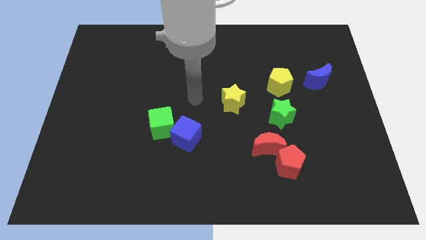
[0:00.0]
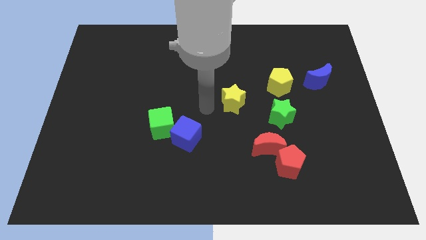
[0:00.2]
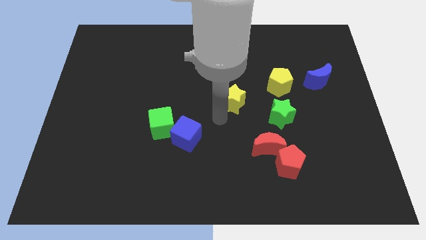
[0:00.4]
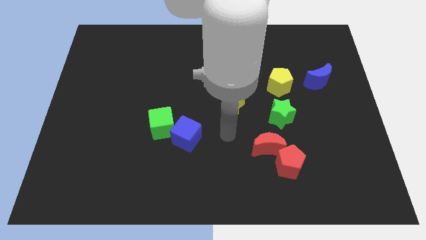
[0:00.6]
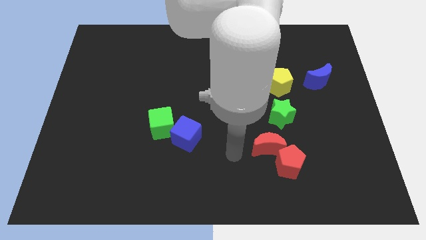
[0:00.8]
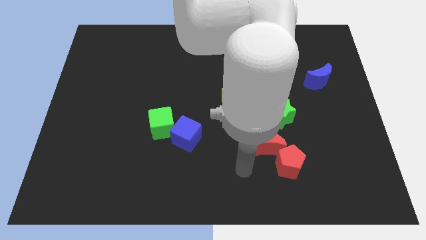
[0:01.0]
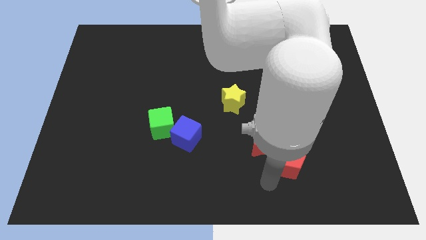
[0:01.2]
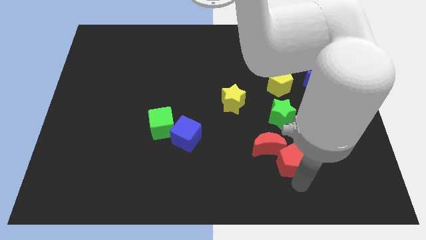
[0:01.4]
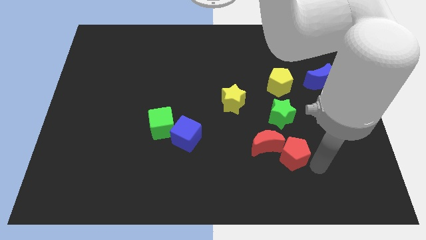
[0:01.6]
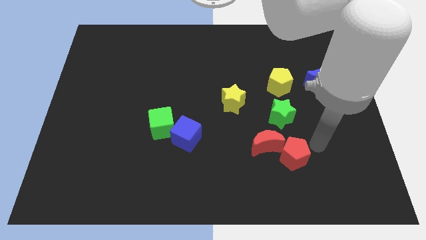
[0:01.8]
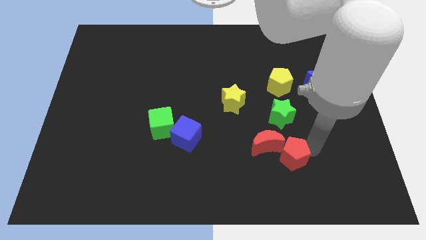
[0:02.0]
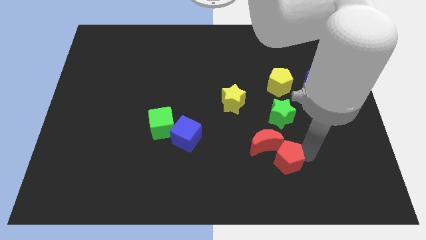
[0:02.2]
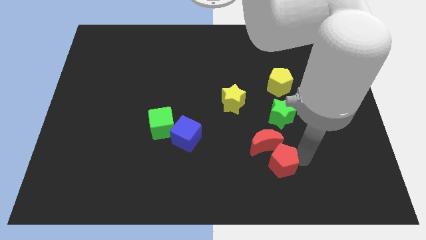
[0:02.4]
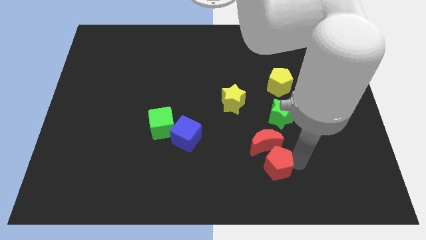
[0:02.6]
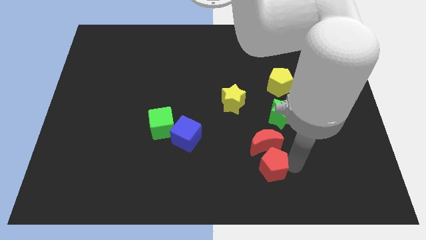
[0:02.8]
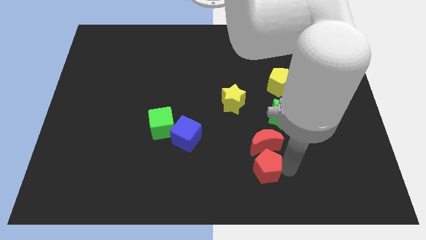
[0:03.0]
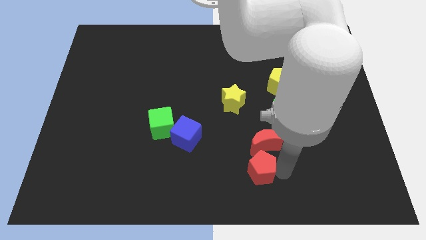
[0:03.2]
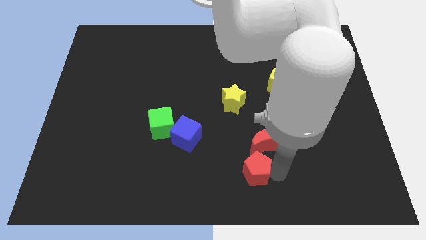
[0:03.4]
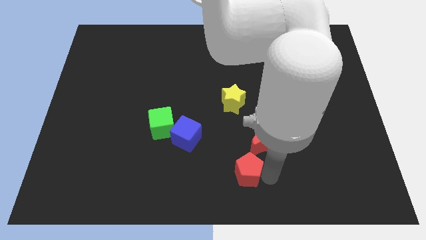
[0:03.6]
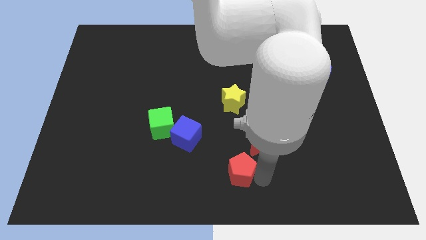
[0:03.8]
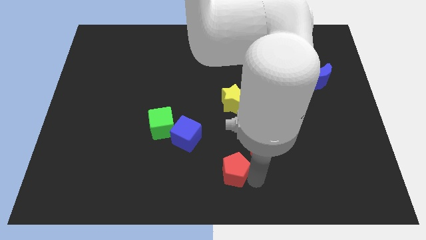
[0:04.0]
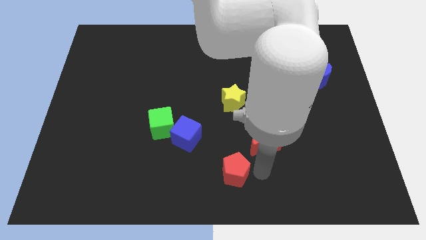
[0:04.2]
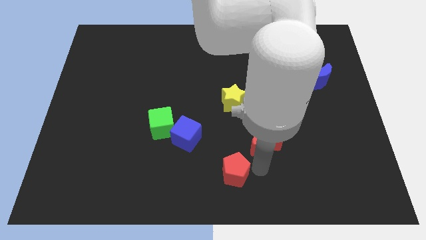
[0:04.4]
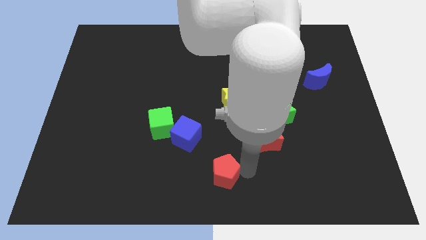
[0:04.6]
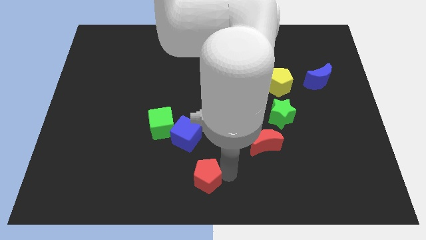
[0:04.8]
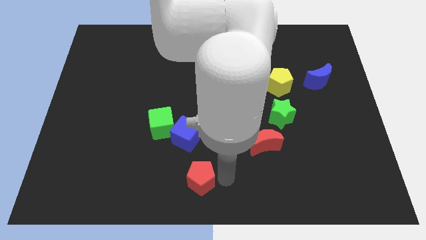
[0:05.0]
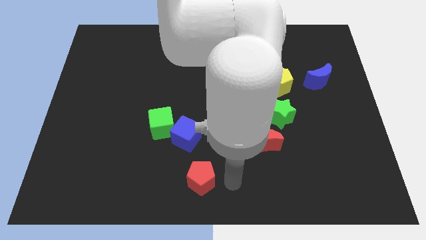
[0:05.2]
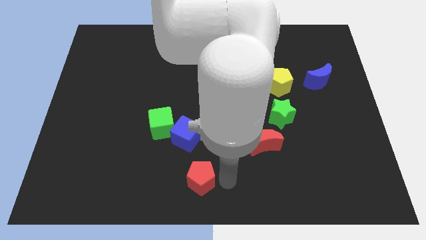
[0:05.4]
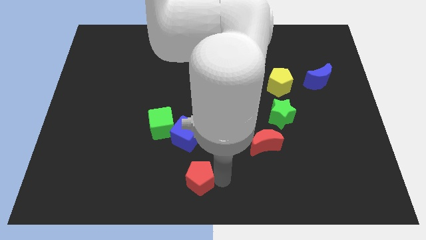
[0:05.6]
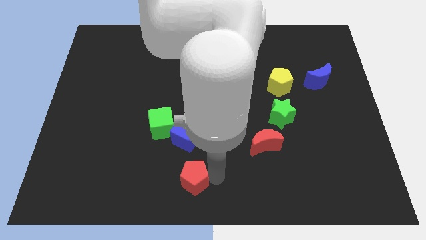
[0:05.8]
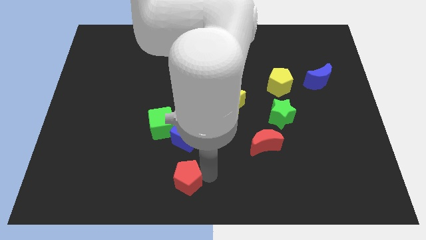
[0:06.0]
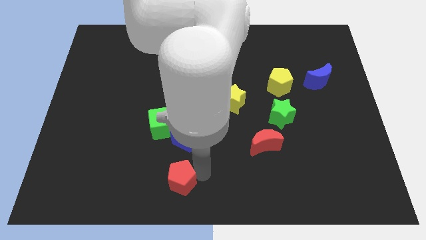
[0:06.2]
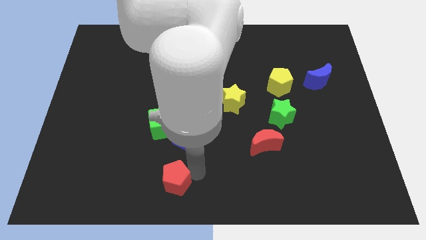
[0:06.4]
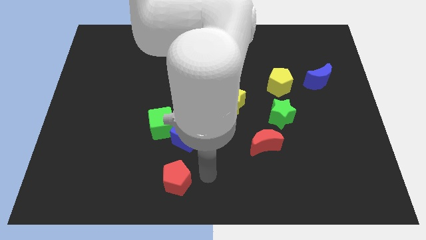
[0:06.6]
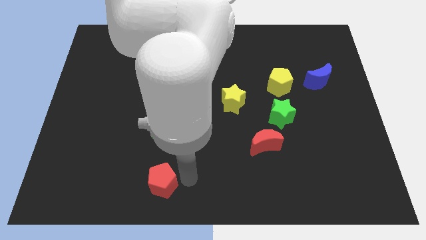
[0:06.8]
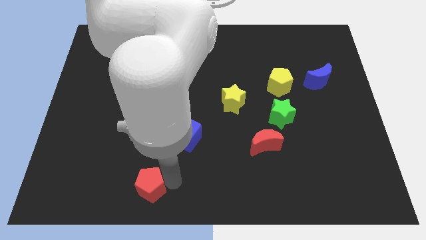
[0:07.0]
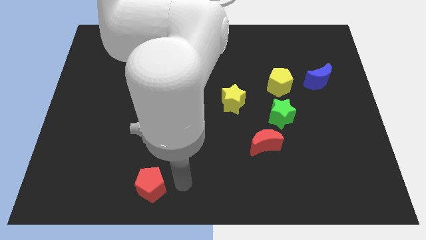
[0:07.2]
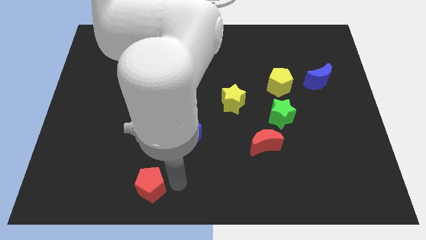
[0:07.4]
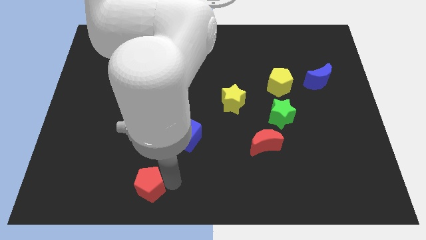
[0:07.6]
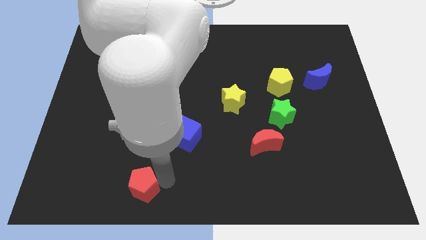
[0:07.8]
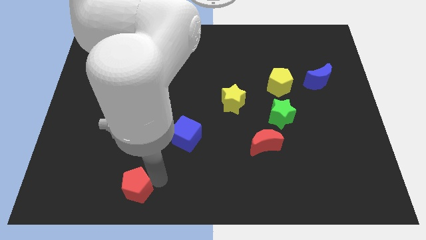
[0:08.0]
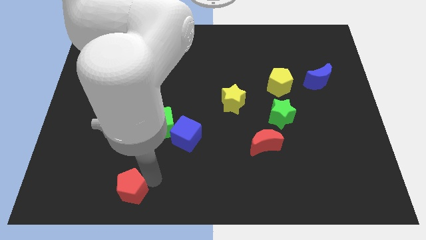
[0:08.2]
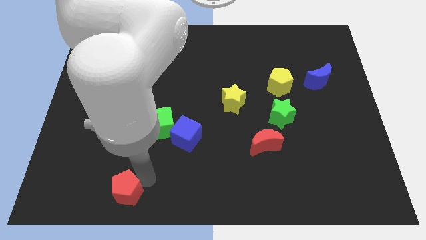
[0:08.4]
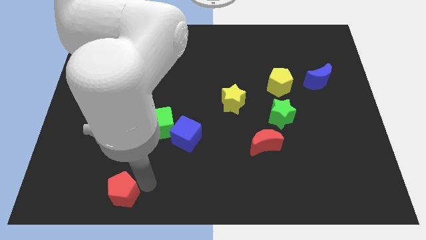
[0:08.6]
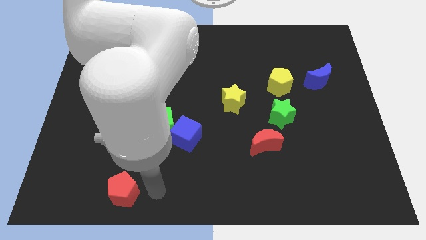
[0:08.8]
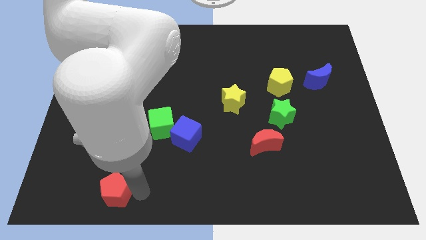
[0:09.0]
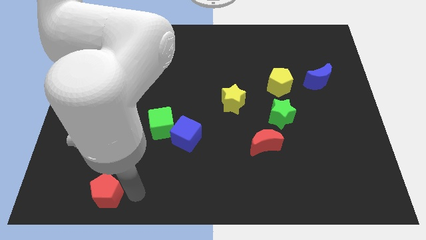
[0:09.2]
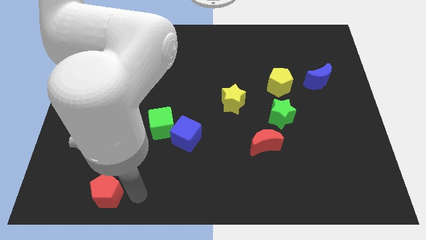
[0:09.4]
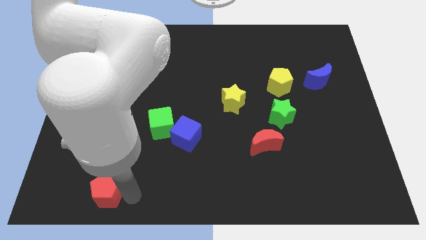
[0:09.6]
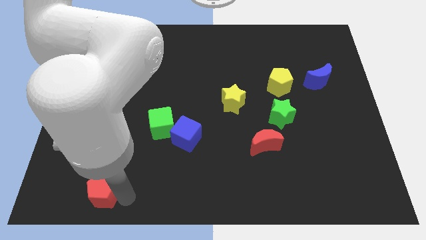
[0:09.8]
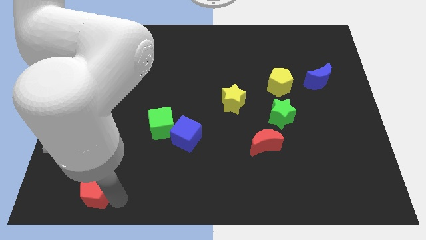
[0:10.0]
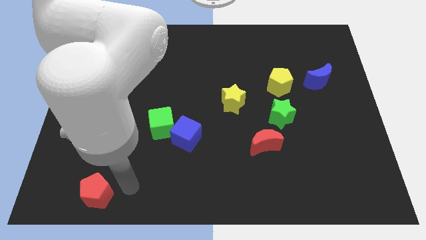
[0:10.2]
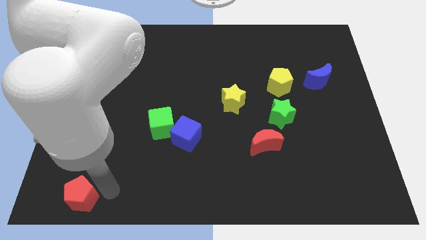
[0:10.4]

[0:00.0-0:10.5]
slide the red pentagon to the lower left corner

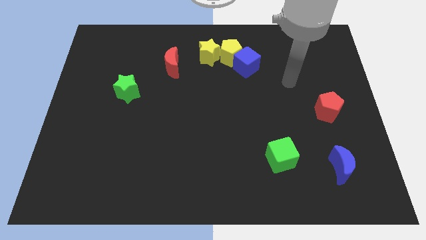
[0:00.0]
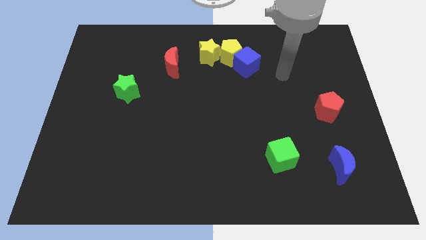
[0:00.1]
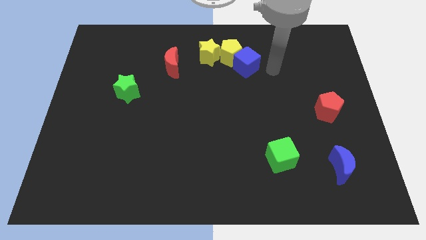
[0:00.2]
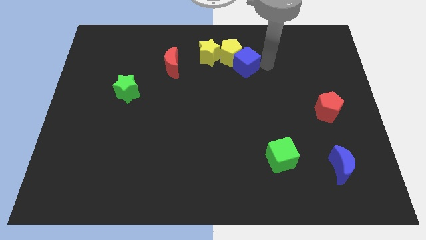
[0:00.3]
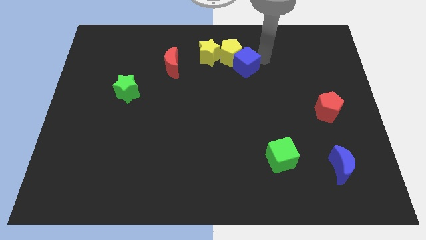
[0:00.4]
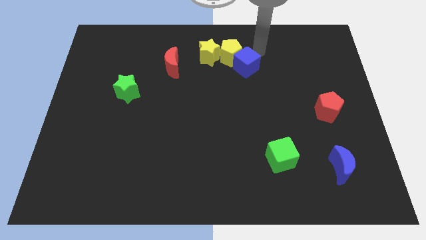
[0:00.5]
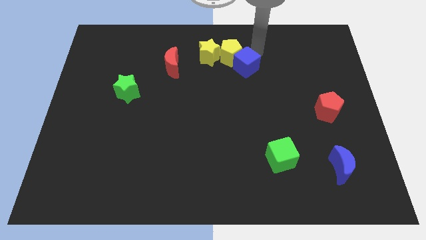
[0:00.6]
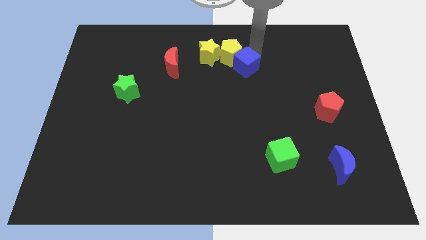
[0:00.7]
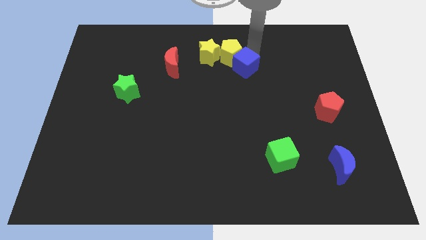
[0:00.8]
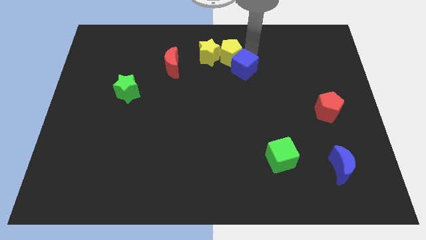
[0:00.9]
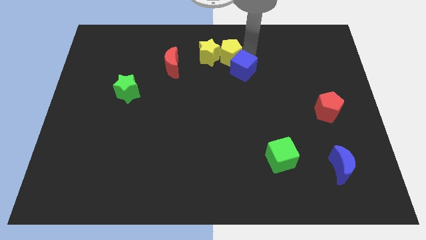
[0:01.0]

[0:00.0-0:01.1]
move the blue cube to the middle
